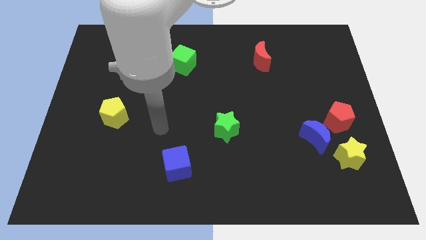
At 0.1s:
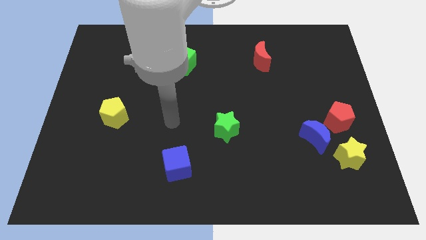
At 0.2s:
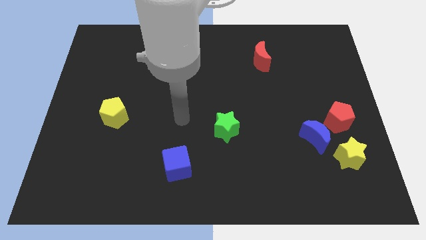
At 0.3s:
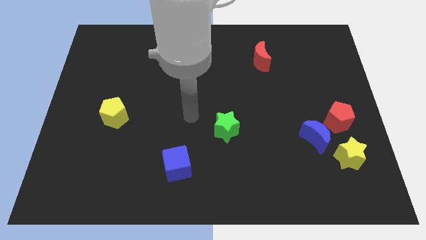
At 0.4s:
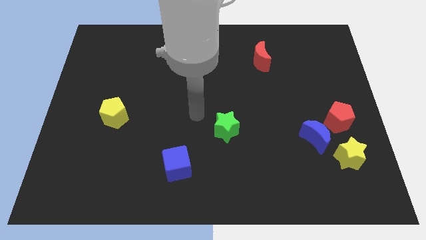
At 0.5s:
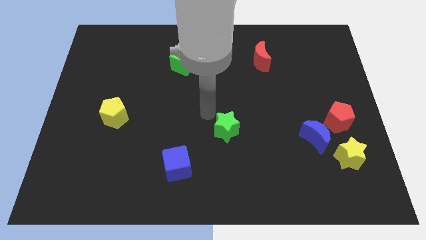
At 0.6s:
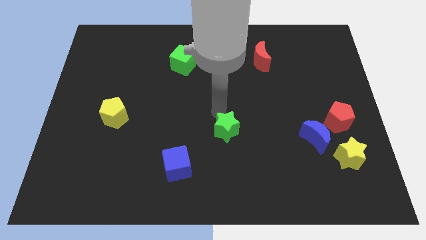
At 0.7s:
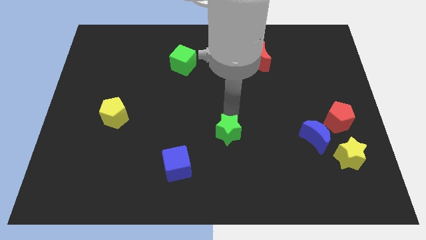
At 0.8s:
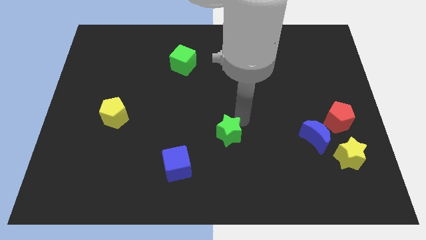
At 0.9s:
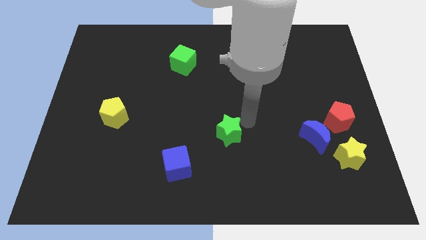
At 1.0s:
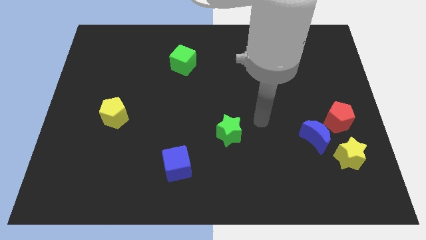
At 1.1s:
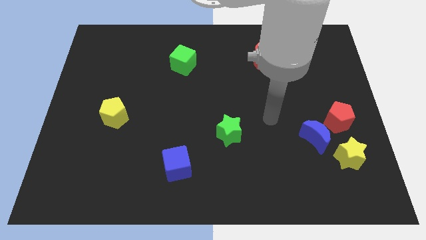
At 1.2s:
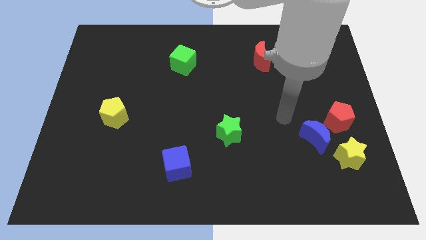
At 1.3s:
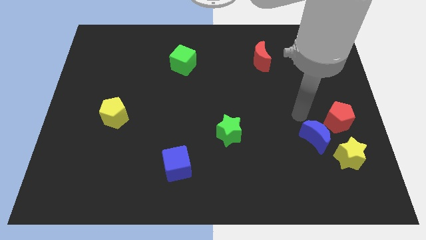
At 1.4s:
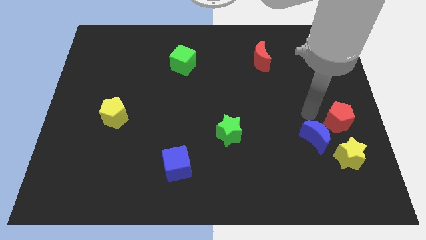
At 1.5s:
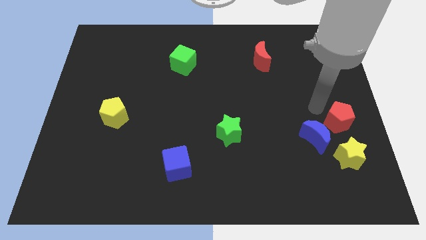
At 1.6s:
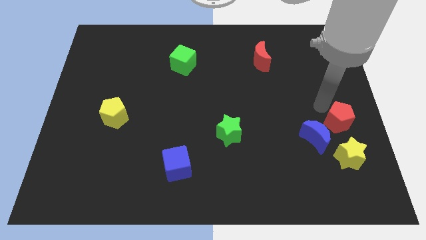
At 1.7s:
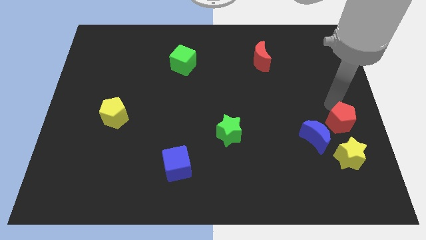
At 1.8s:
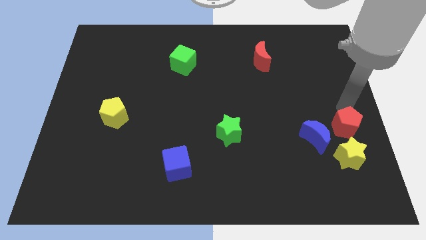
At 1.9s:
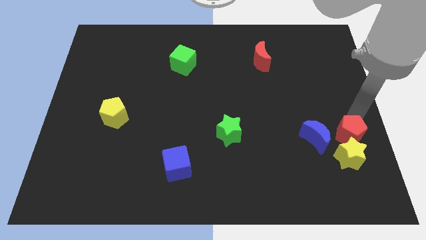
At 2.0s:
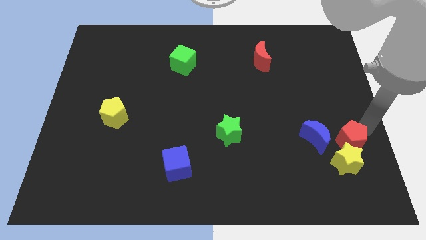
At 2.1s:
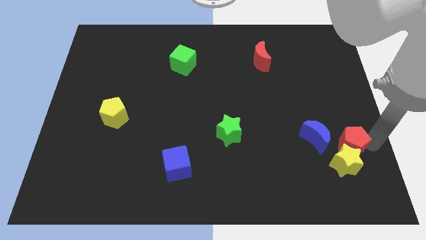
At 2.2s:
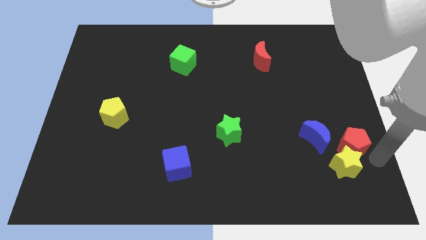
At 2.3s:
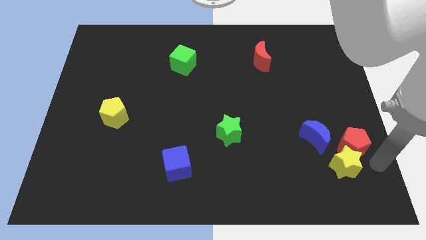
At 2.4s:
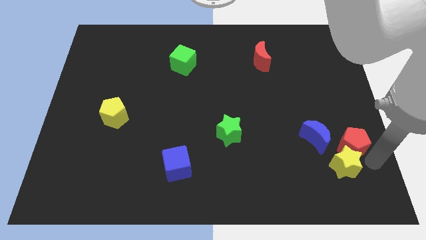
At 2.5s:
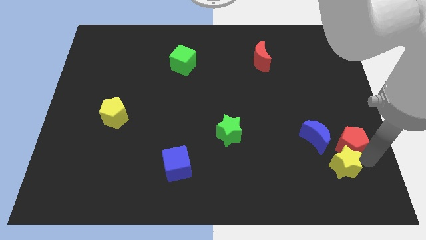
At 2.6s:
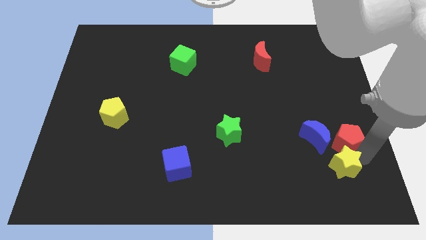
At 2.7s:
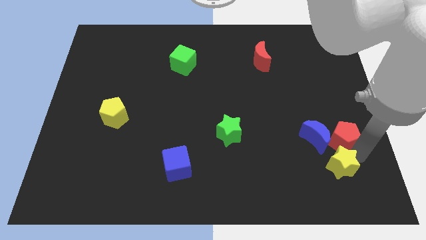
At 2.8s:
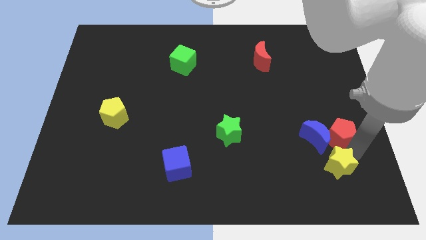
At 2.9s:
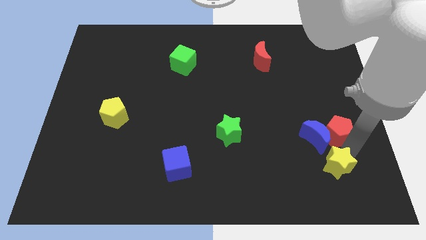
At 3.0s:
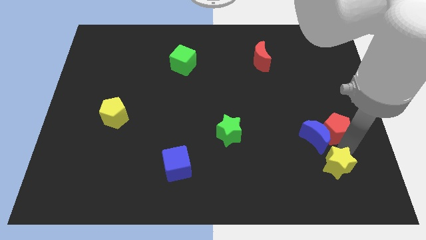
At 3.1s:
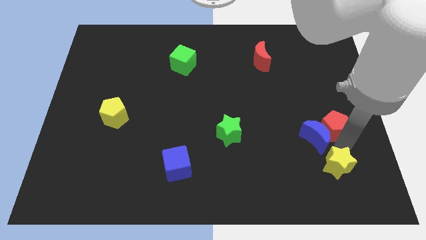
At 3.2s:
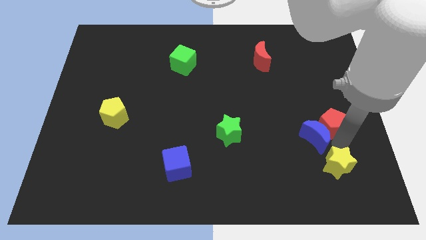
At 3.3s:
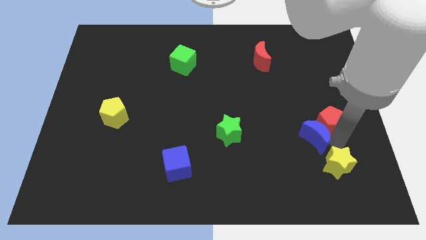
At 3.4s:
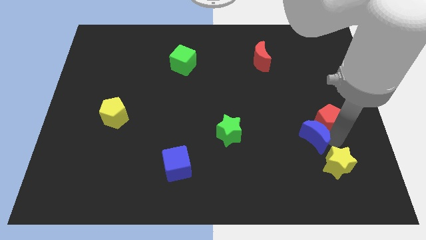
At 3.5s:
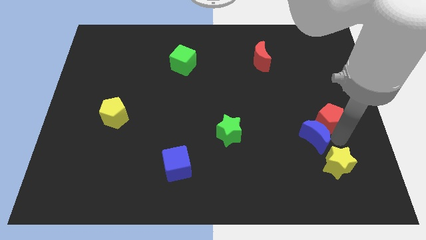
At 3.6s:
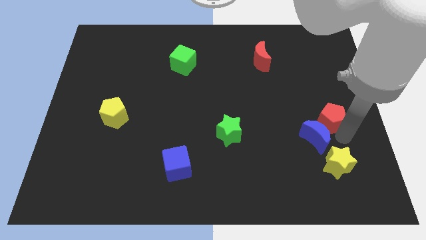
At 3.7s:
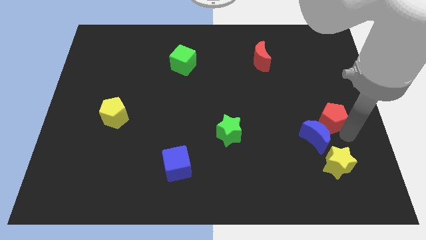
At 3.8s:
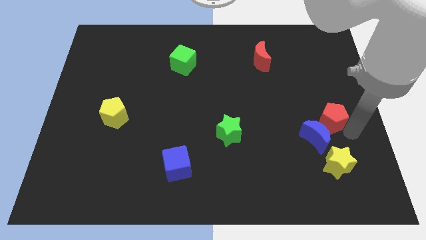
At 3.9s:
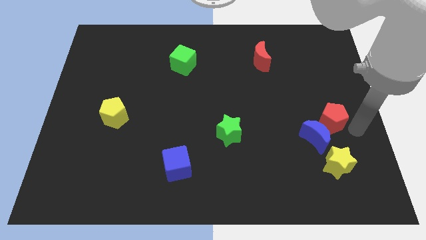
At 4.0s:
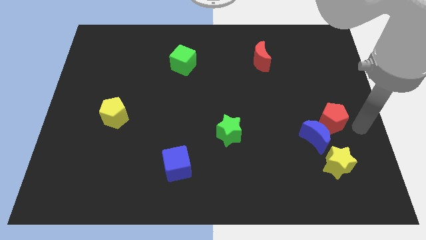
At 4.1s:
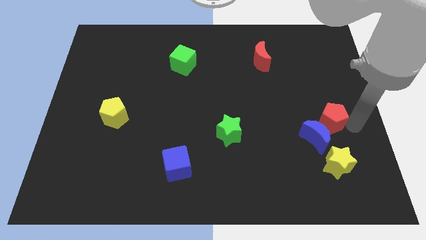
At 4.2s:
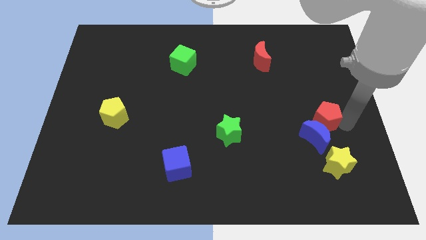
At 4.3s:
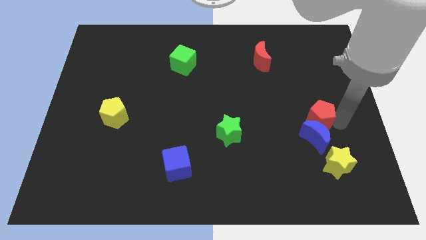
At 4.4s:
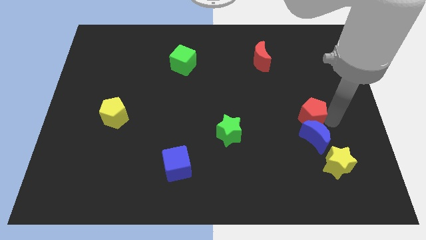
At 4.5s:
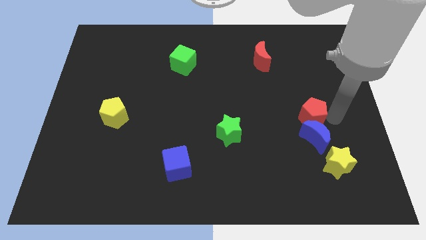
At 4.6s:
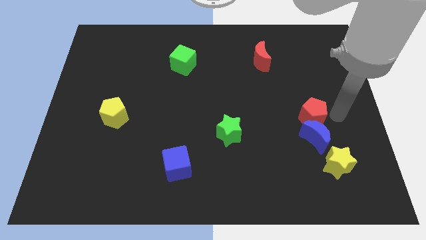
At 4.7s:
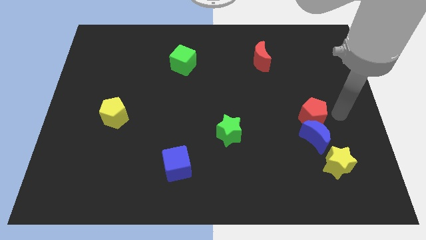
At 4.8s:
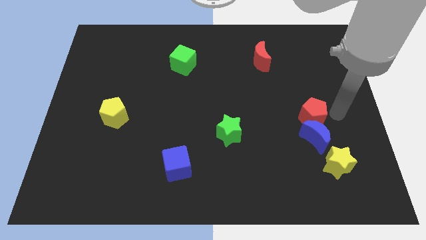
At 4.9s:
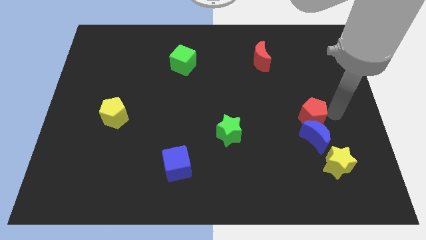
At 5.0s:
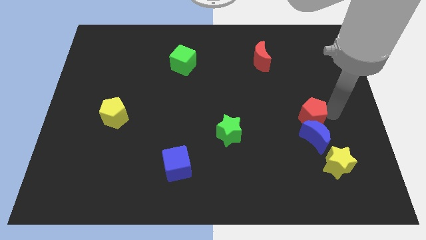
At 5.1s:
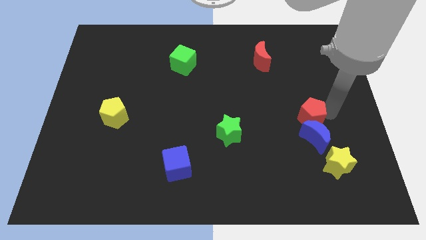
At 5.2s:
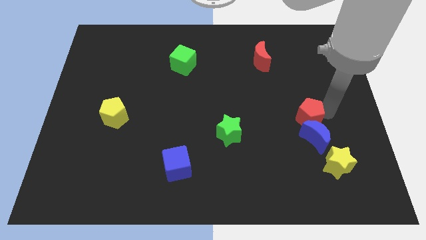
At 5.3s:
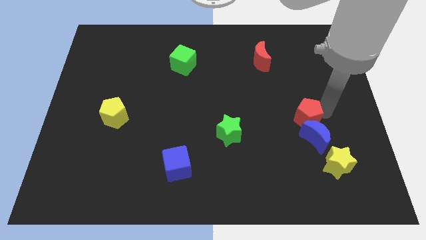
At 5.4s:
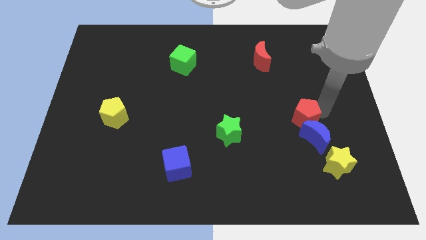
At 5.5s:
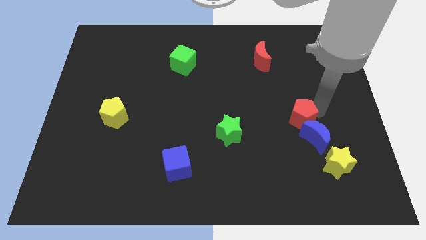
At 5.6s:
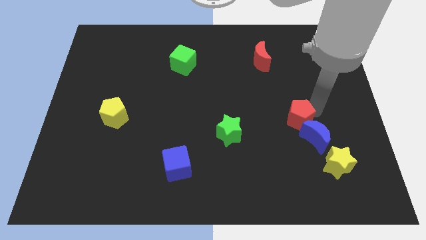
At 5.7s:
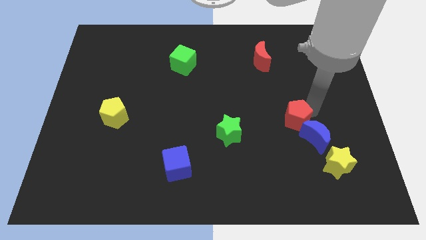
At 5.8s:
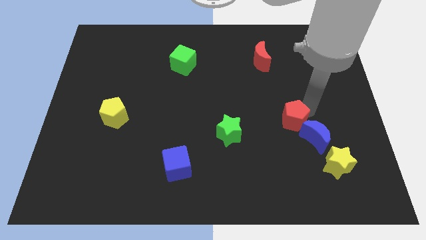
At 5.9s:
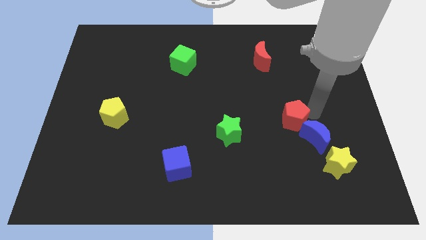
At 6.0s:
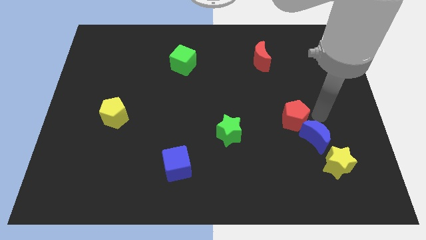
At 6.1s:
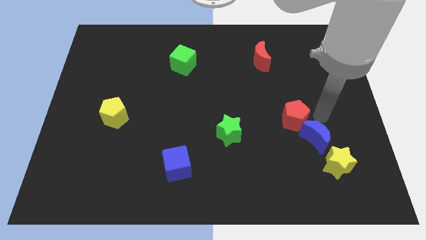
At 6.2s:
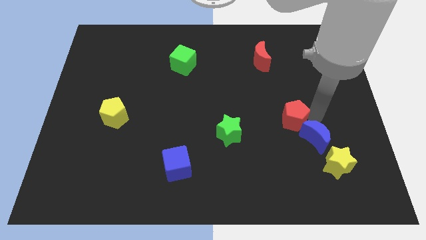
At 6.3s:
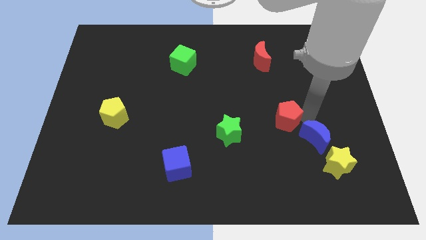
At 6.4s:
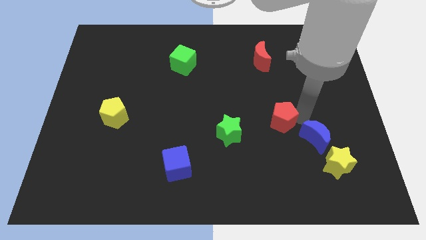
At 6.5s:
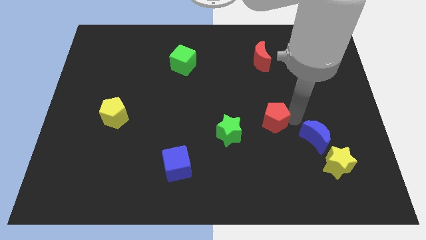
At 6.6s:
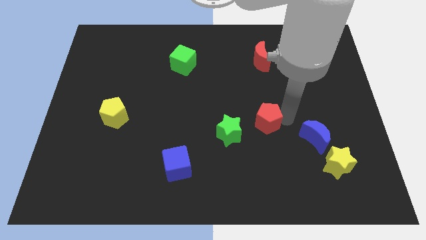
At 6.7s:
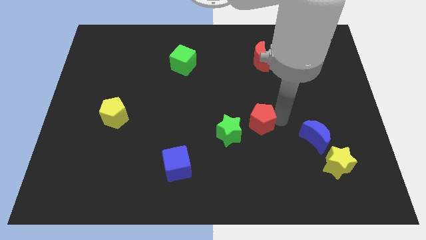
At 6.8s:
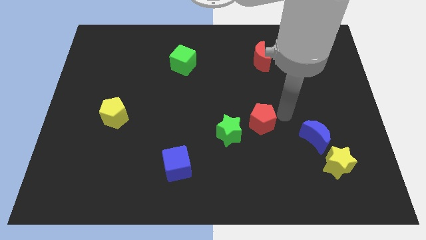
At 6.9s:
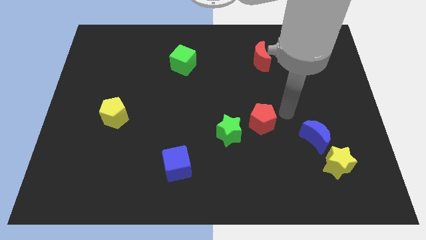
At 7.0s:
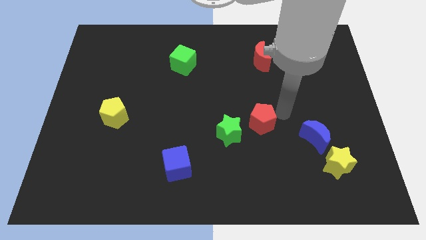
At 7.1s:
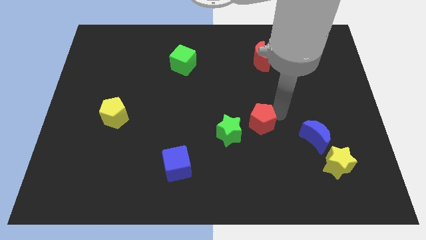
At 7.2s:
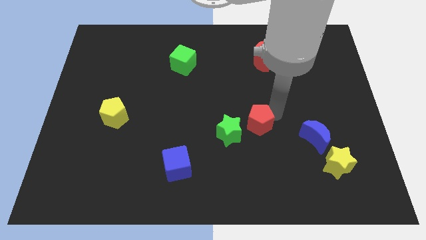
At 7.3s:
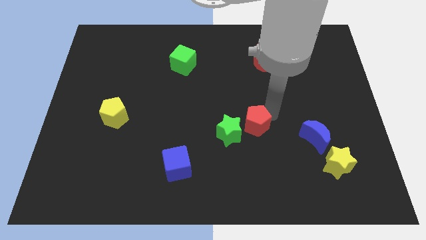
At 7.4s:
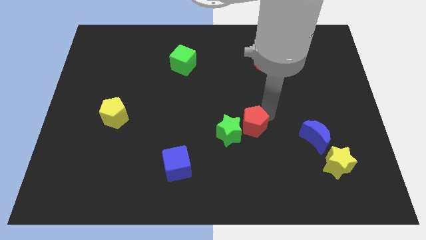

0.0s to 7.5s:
move the red pentagon next to the green star
